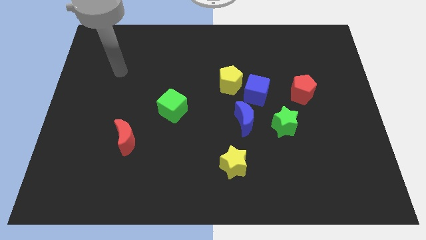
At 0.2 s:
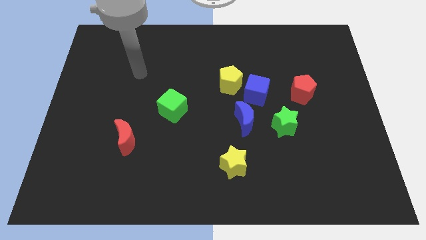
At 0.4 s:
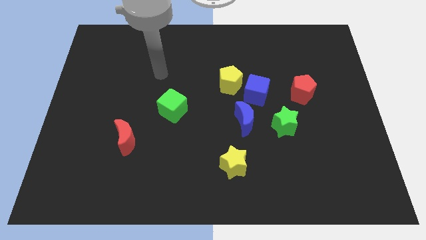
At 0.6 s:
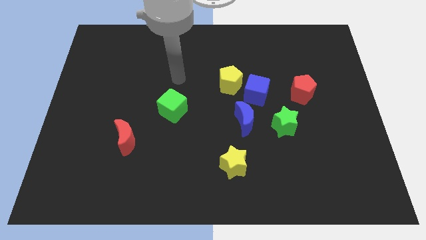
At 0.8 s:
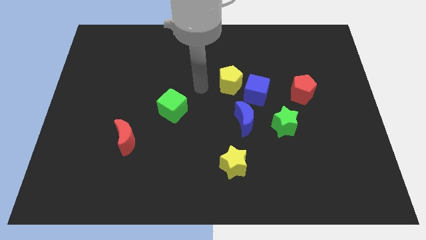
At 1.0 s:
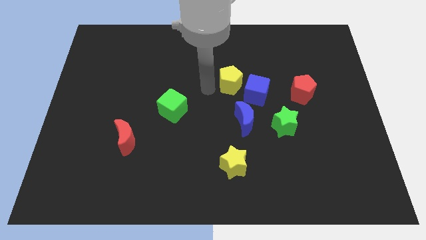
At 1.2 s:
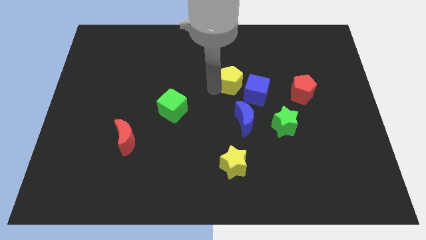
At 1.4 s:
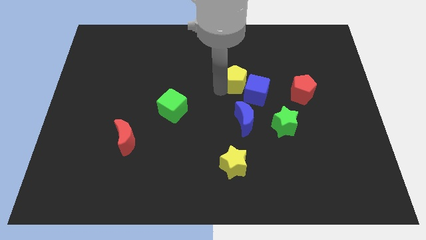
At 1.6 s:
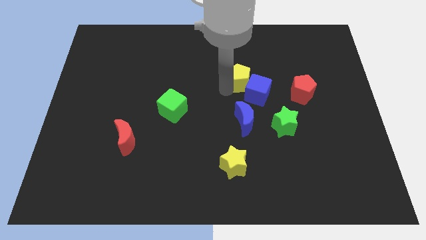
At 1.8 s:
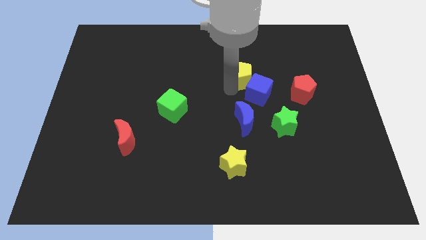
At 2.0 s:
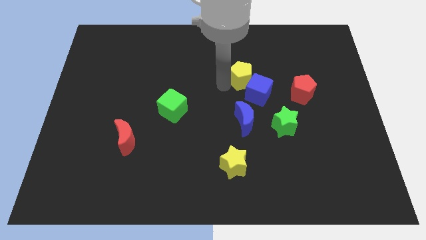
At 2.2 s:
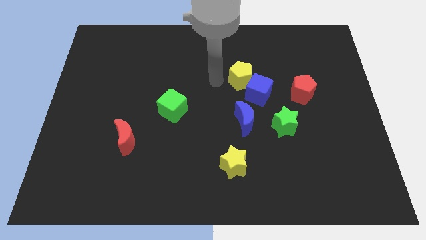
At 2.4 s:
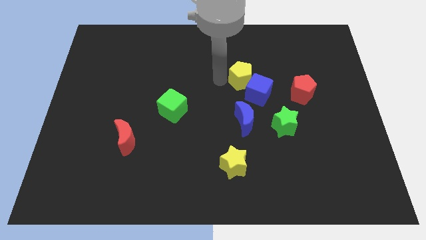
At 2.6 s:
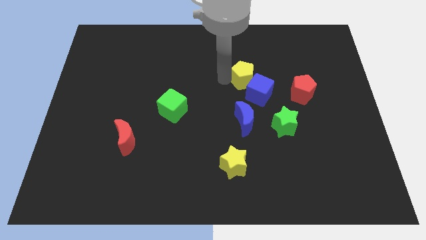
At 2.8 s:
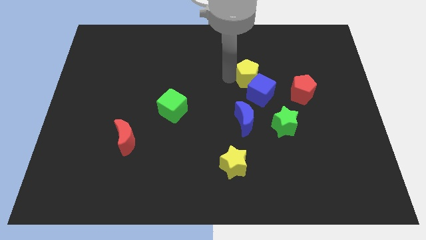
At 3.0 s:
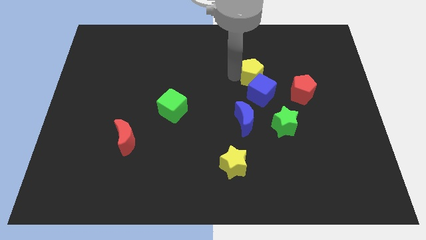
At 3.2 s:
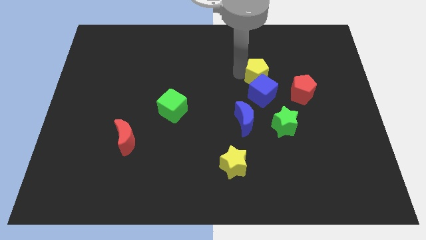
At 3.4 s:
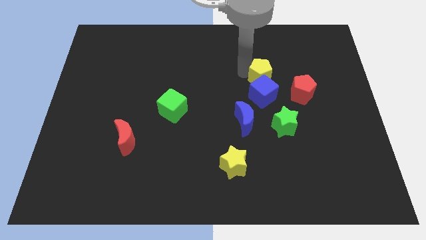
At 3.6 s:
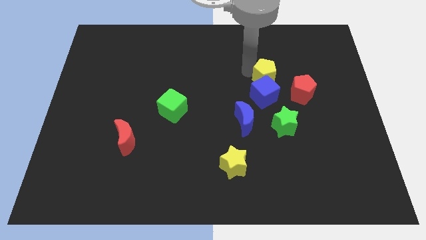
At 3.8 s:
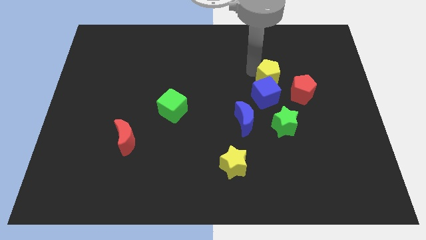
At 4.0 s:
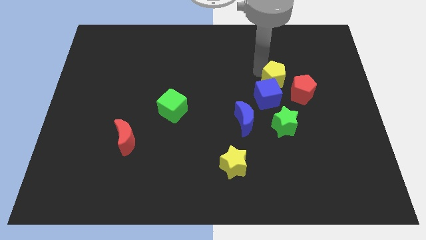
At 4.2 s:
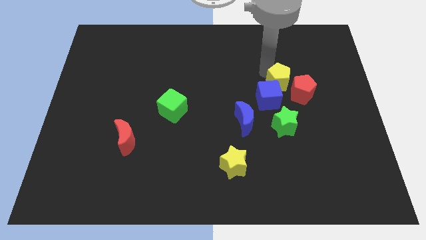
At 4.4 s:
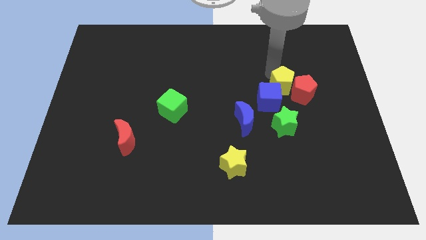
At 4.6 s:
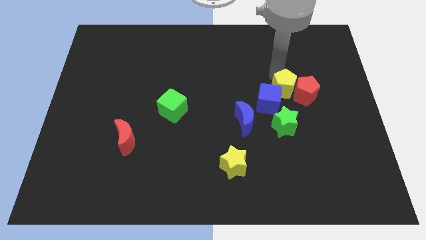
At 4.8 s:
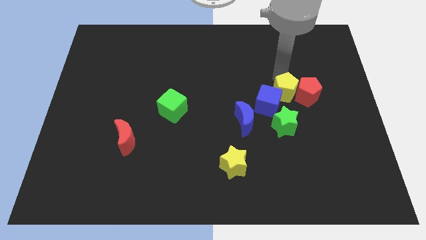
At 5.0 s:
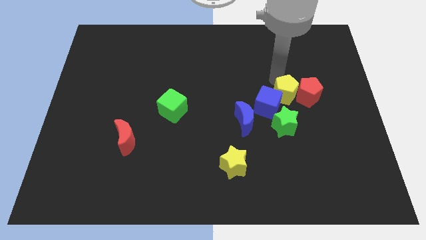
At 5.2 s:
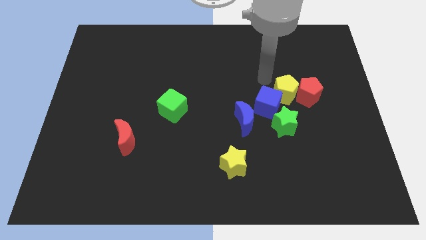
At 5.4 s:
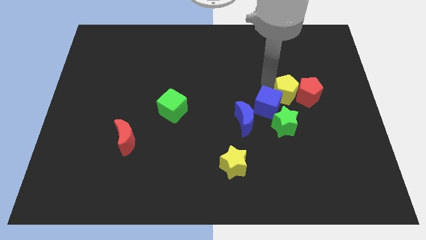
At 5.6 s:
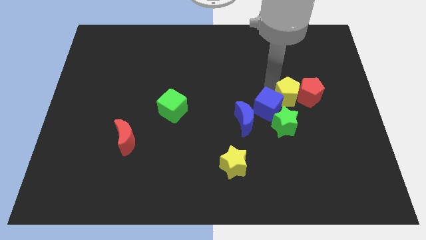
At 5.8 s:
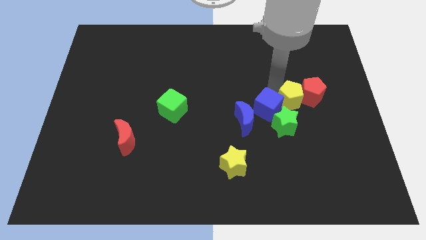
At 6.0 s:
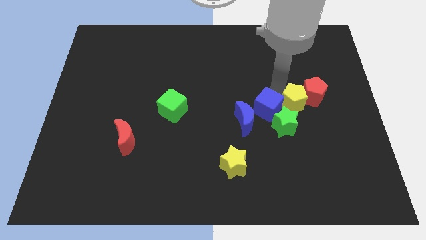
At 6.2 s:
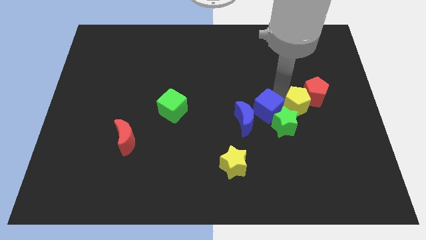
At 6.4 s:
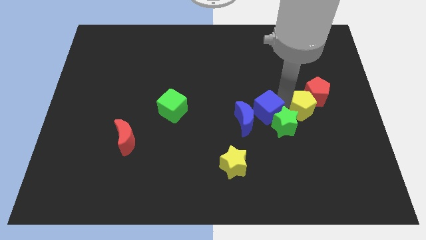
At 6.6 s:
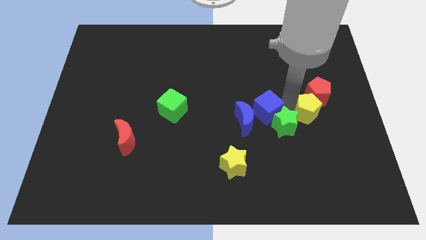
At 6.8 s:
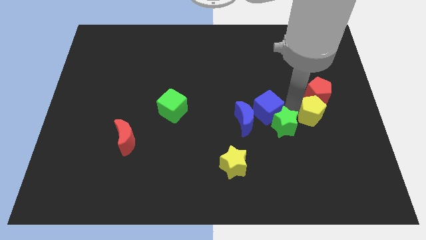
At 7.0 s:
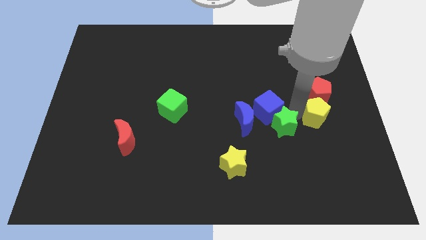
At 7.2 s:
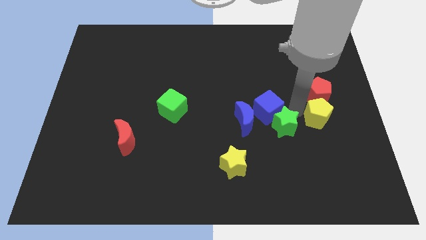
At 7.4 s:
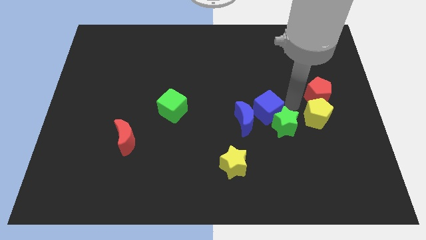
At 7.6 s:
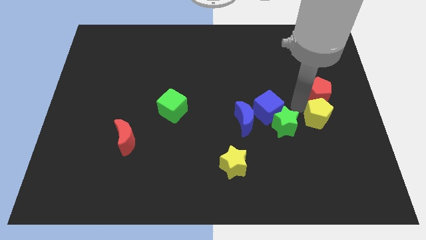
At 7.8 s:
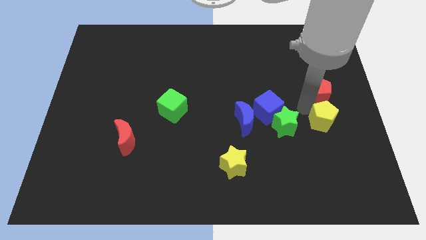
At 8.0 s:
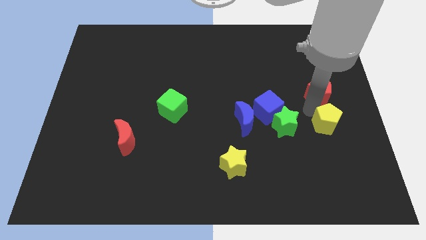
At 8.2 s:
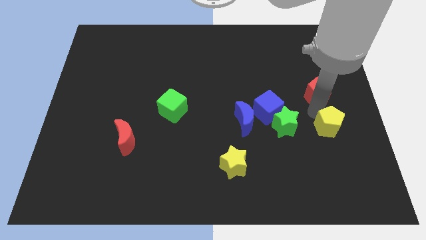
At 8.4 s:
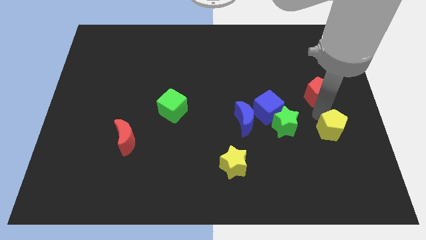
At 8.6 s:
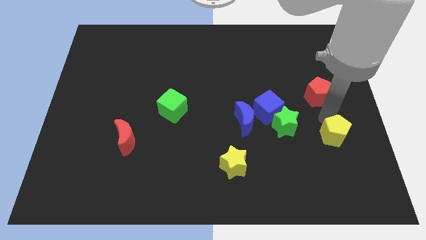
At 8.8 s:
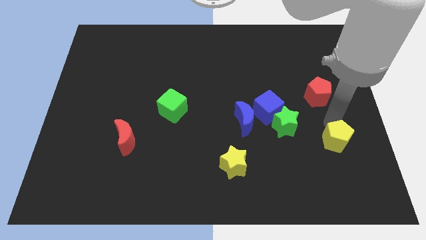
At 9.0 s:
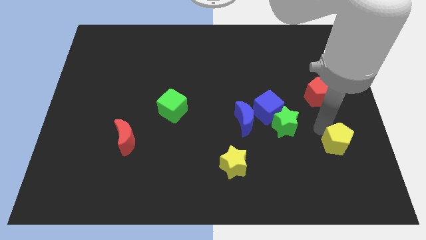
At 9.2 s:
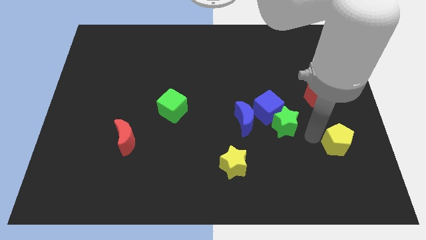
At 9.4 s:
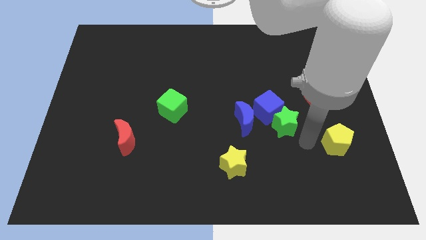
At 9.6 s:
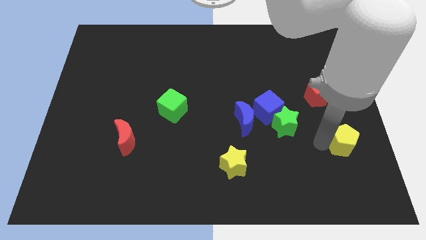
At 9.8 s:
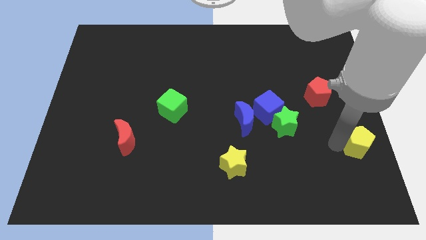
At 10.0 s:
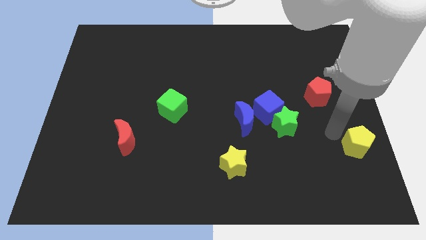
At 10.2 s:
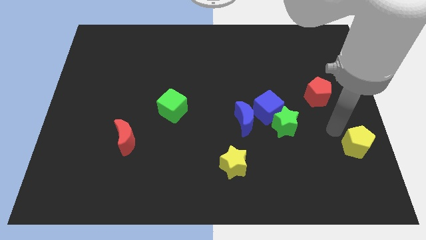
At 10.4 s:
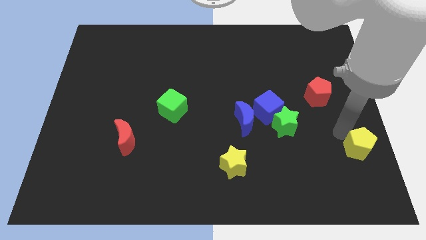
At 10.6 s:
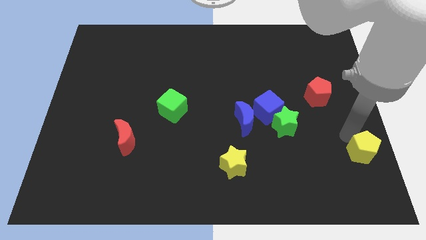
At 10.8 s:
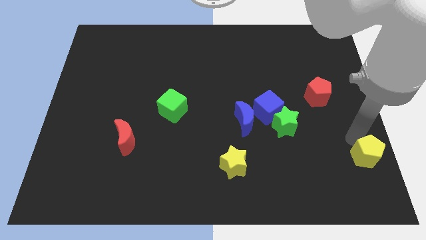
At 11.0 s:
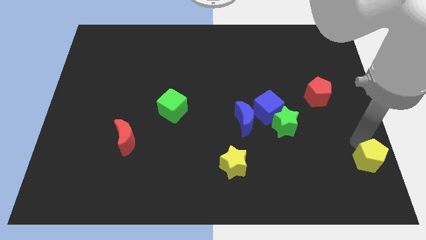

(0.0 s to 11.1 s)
slide the yellow pentagon to the lower right corner
